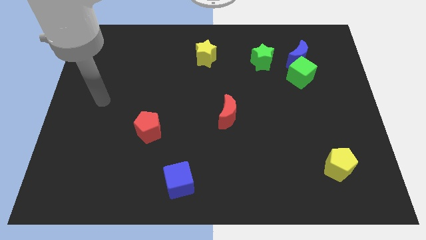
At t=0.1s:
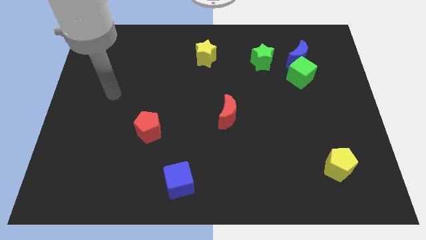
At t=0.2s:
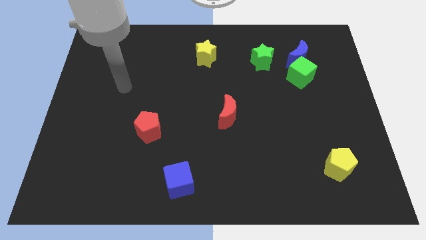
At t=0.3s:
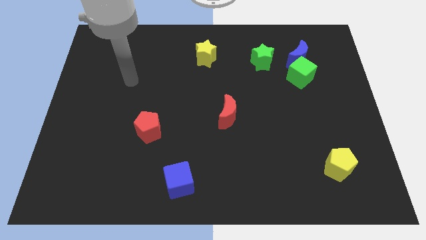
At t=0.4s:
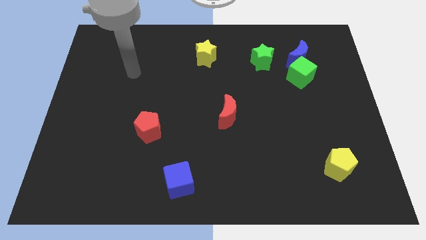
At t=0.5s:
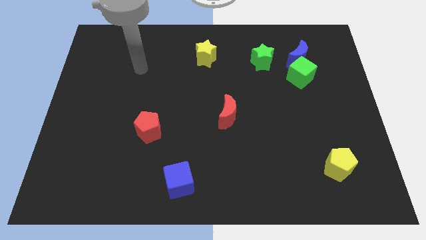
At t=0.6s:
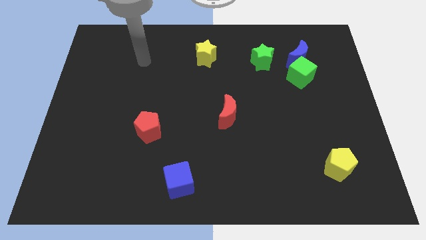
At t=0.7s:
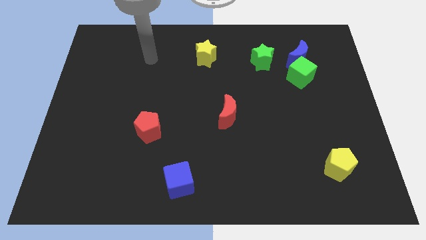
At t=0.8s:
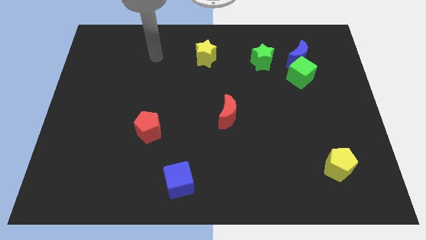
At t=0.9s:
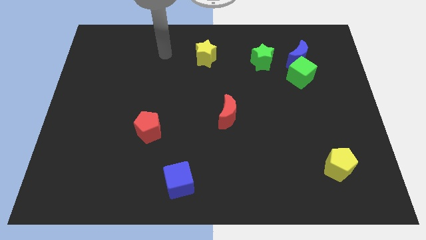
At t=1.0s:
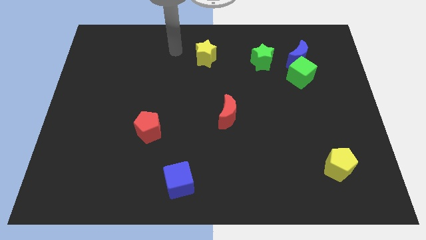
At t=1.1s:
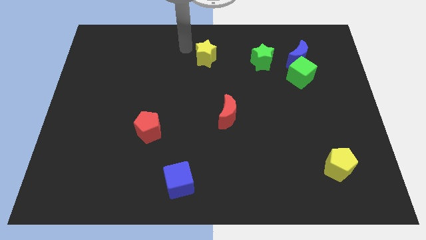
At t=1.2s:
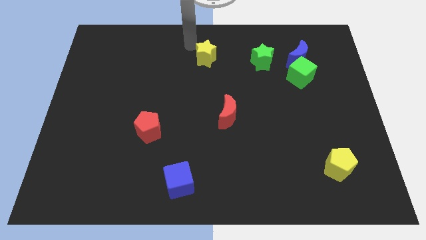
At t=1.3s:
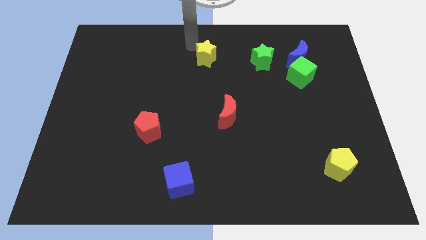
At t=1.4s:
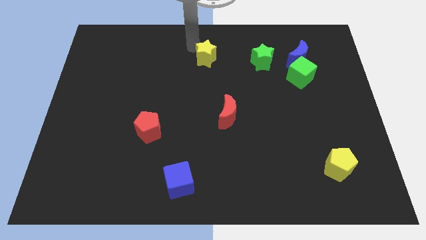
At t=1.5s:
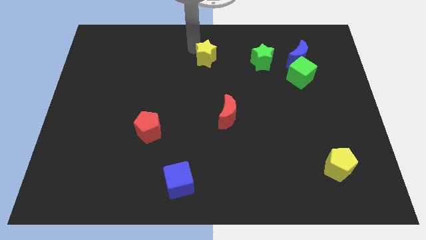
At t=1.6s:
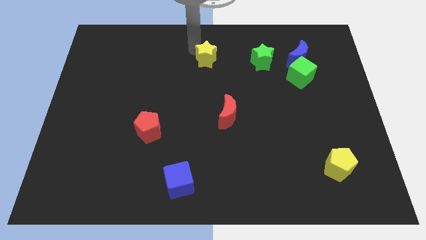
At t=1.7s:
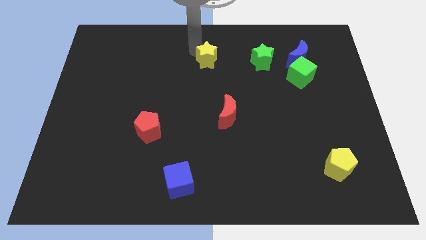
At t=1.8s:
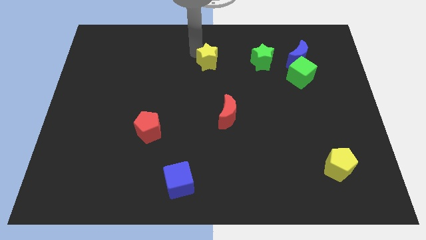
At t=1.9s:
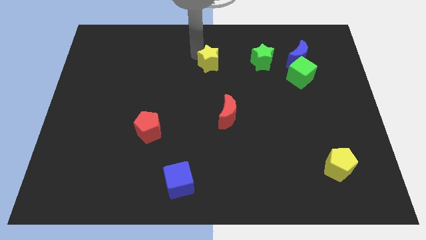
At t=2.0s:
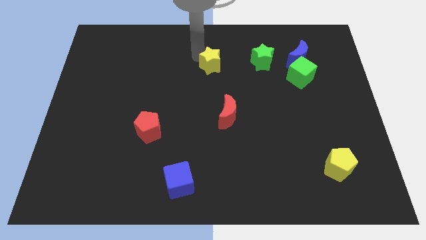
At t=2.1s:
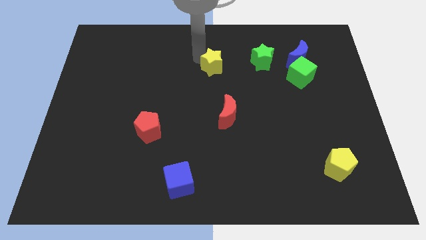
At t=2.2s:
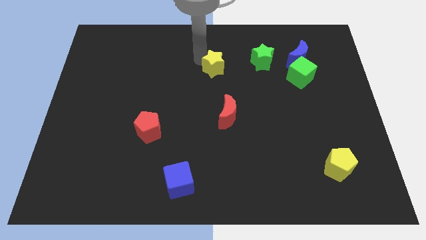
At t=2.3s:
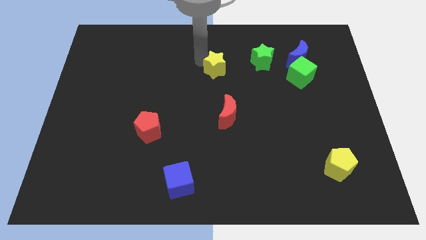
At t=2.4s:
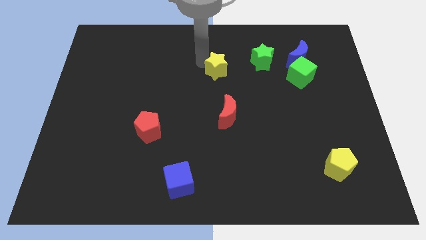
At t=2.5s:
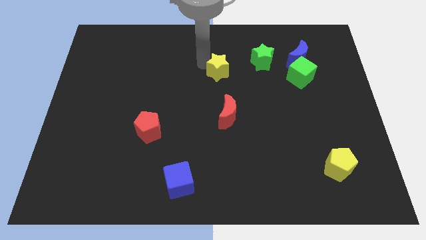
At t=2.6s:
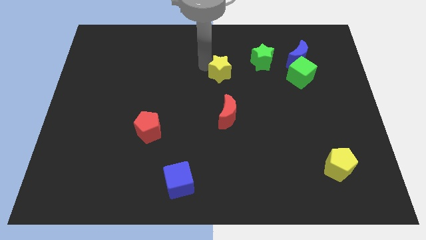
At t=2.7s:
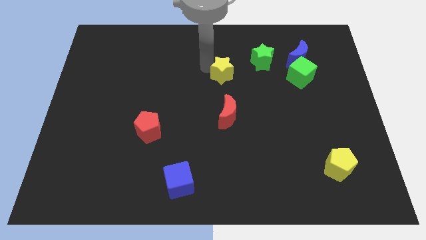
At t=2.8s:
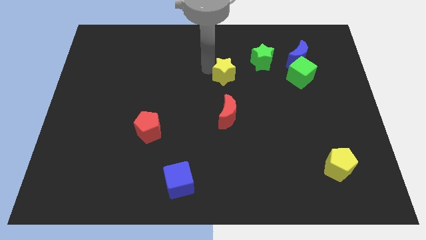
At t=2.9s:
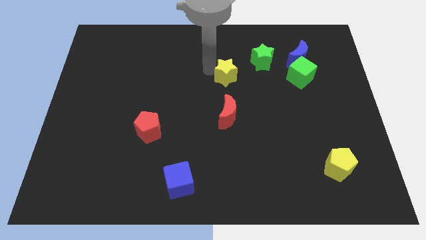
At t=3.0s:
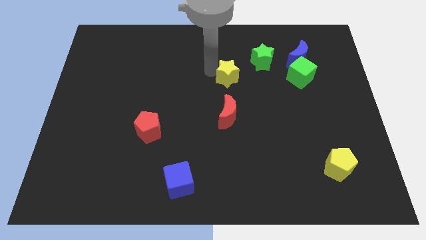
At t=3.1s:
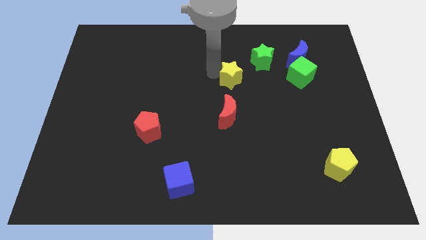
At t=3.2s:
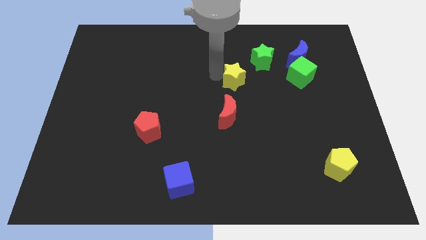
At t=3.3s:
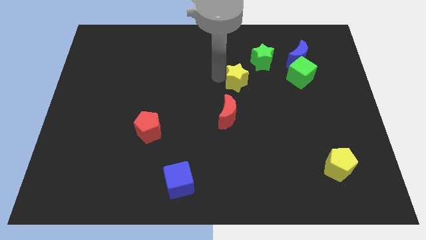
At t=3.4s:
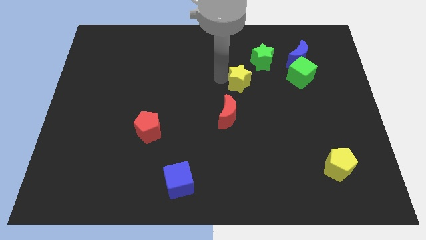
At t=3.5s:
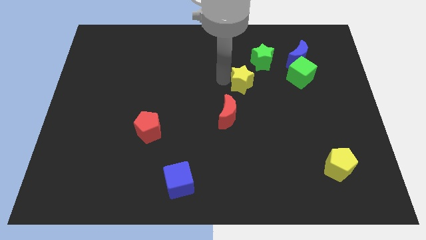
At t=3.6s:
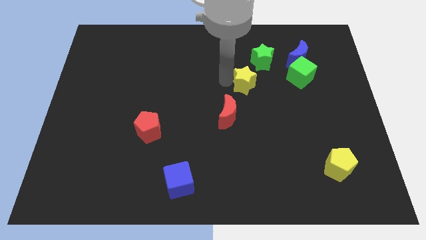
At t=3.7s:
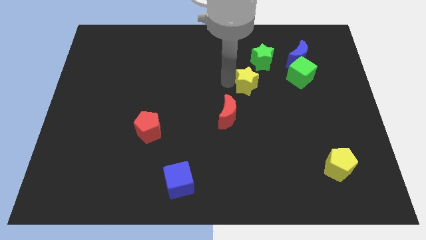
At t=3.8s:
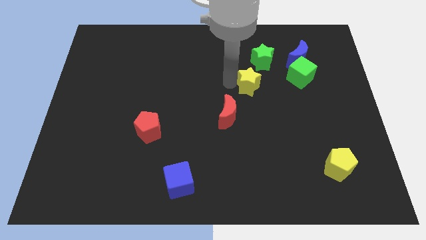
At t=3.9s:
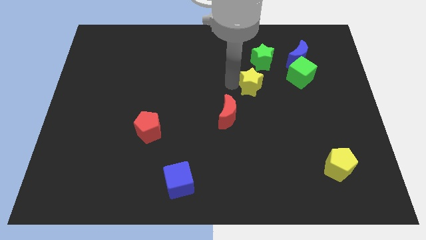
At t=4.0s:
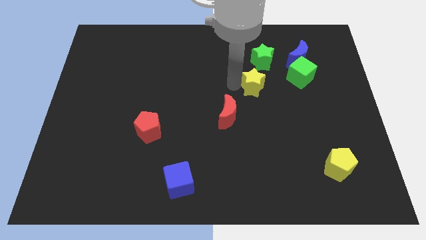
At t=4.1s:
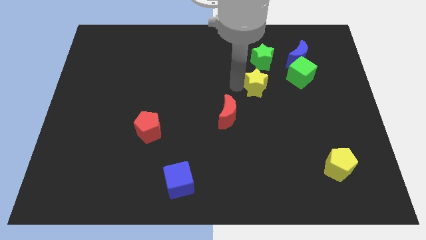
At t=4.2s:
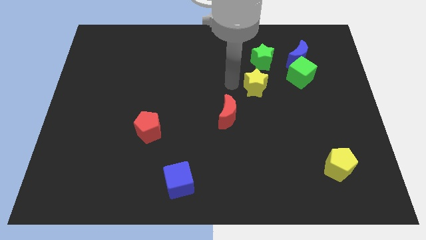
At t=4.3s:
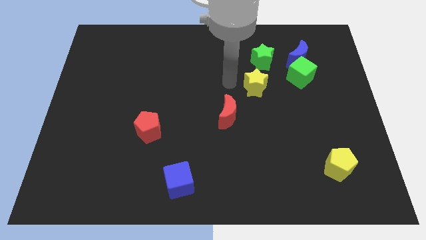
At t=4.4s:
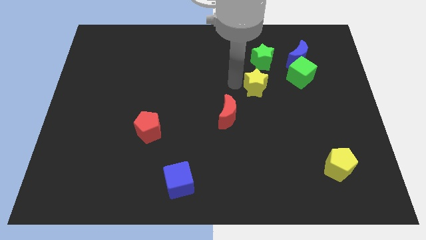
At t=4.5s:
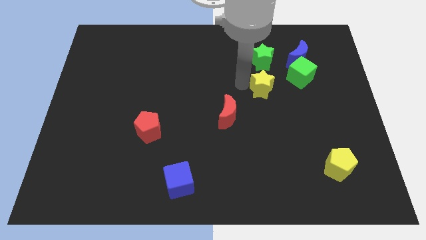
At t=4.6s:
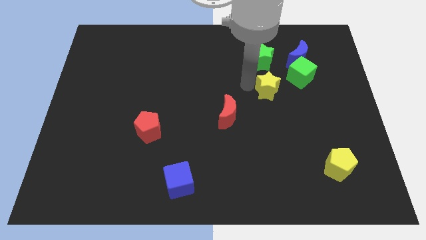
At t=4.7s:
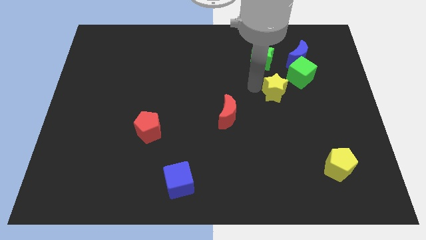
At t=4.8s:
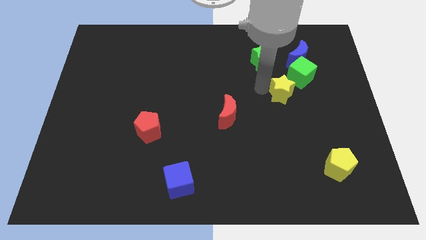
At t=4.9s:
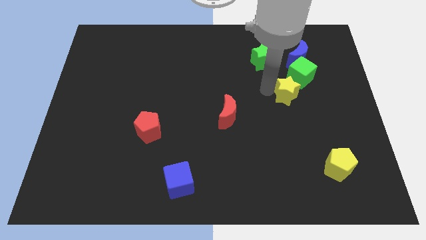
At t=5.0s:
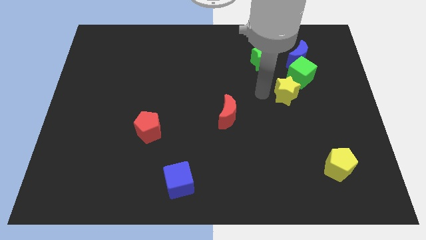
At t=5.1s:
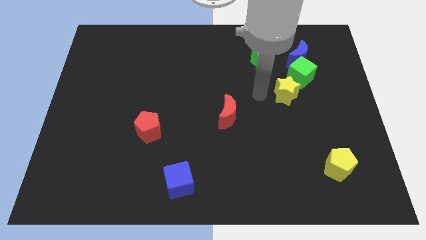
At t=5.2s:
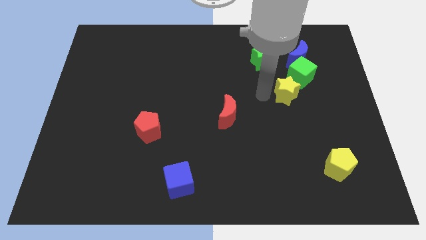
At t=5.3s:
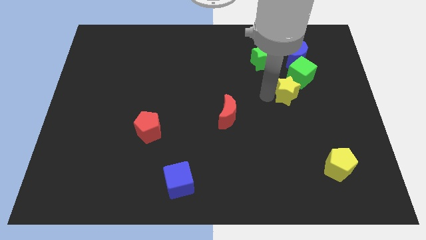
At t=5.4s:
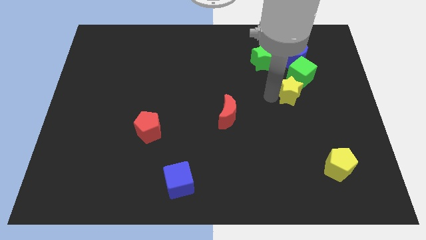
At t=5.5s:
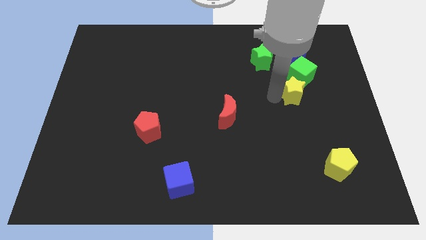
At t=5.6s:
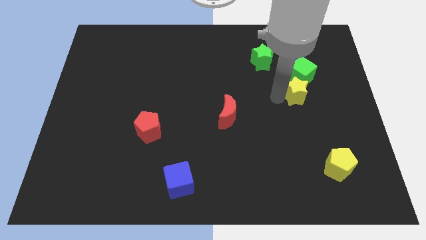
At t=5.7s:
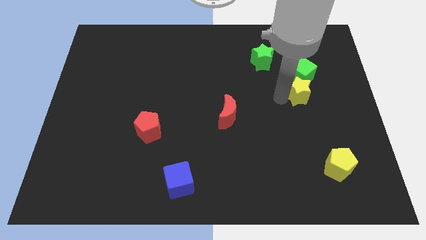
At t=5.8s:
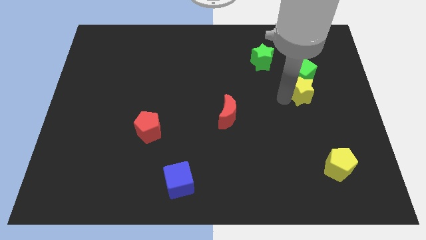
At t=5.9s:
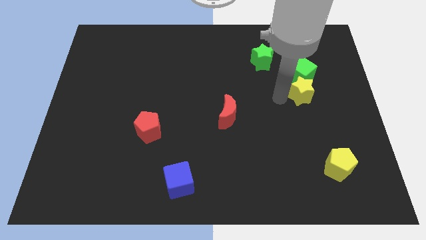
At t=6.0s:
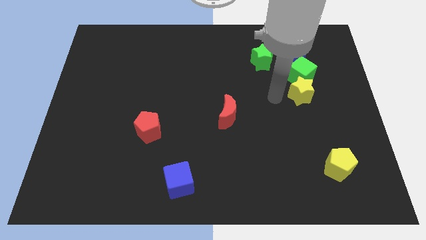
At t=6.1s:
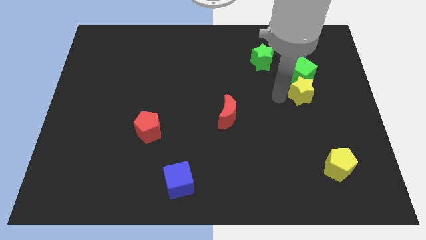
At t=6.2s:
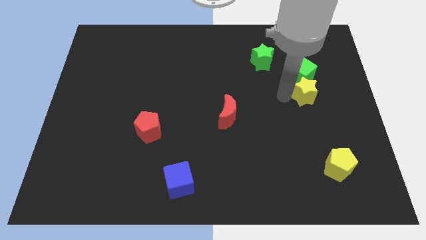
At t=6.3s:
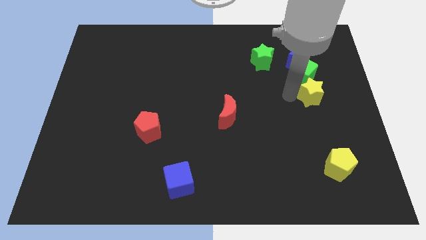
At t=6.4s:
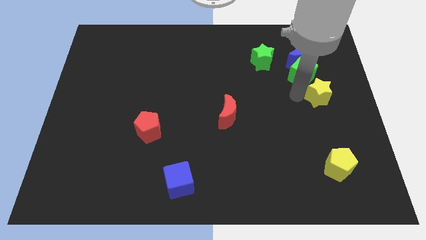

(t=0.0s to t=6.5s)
slide the yellow star to the right side of the board
